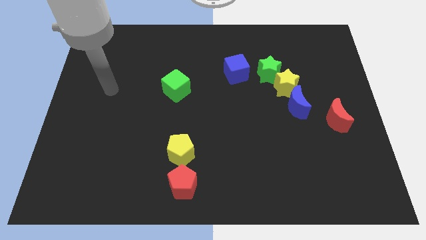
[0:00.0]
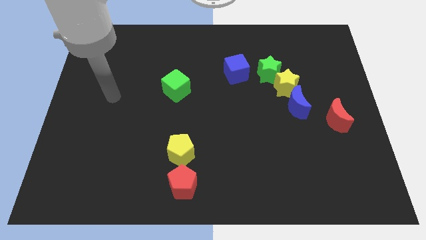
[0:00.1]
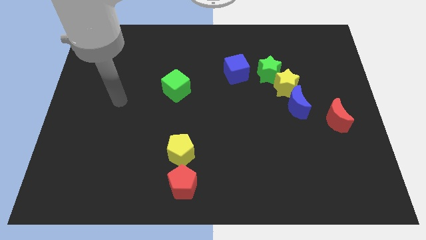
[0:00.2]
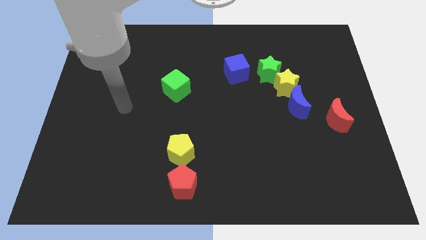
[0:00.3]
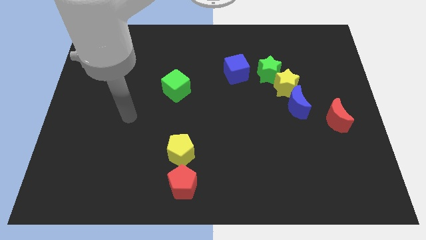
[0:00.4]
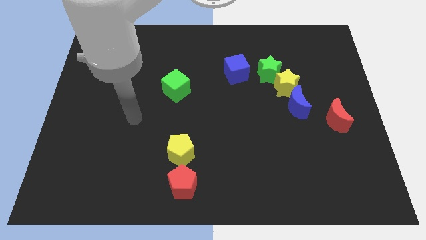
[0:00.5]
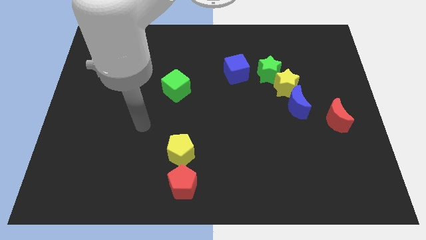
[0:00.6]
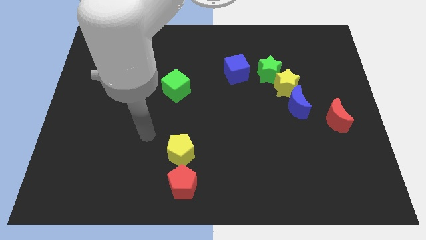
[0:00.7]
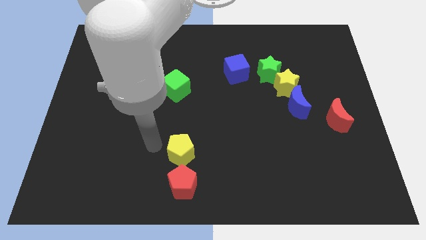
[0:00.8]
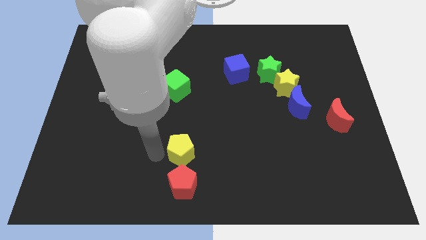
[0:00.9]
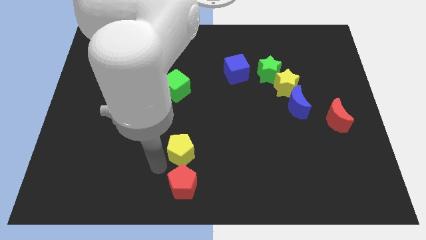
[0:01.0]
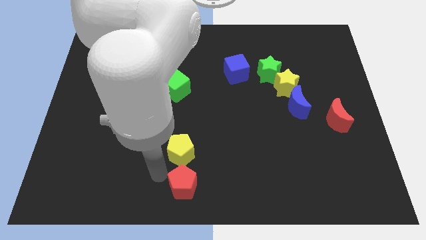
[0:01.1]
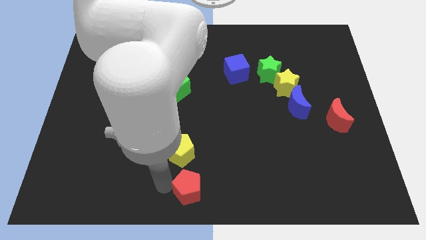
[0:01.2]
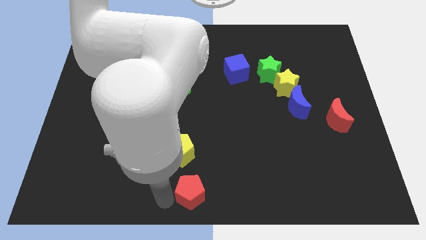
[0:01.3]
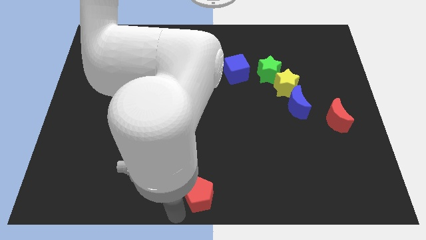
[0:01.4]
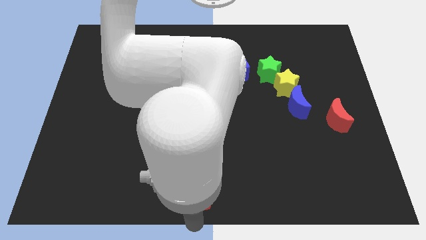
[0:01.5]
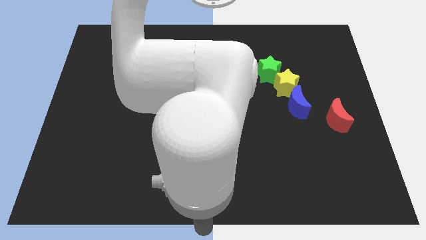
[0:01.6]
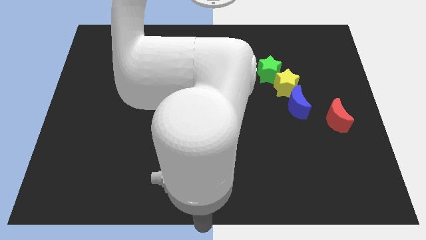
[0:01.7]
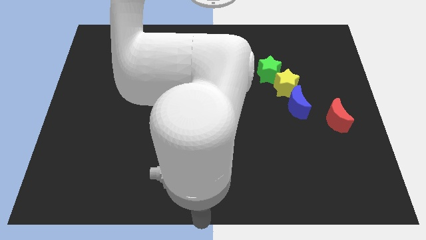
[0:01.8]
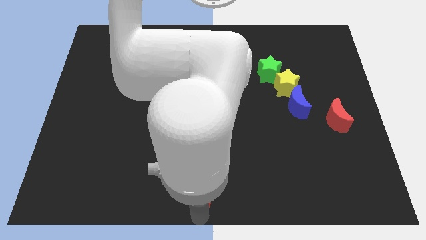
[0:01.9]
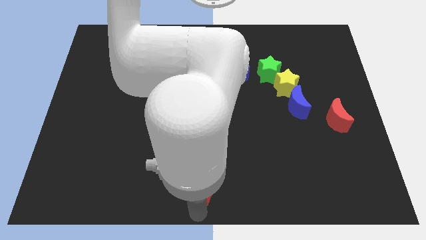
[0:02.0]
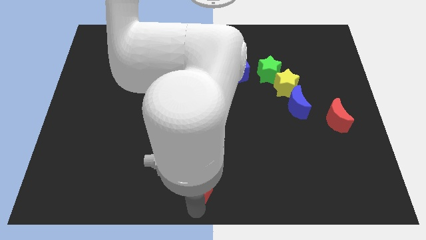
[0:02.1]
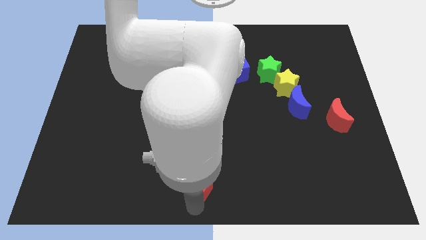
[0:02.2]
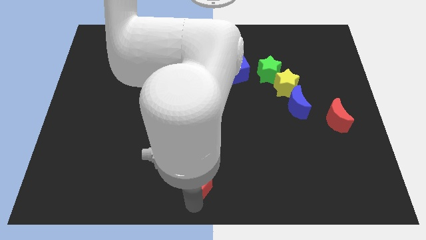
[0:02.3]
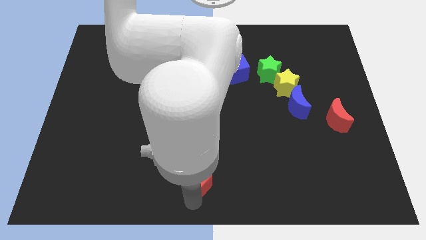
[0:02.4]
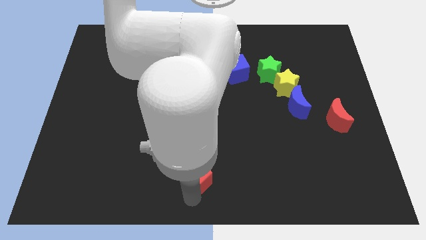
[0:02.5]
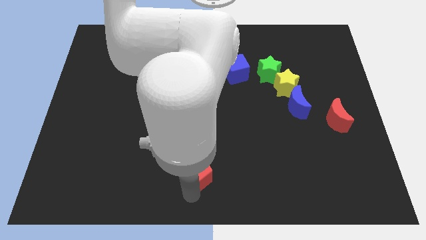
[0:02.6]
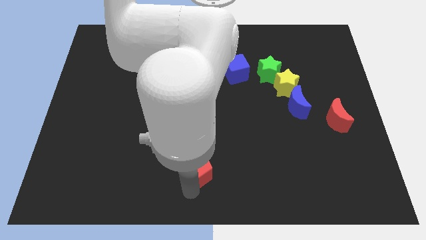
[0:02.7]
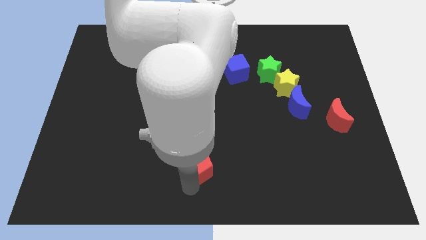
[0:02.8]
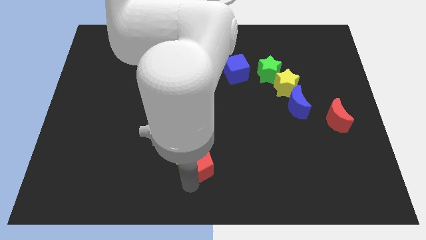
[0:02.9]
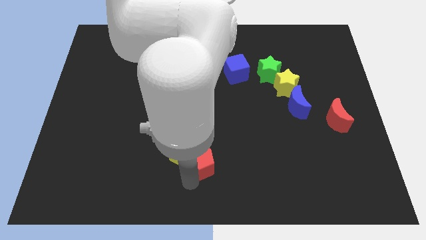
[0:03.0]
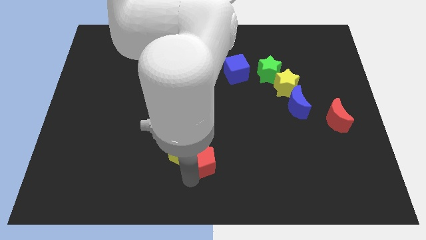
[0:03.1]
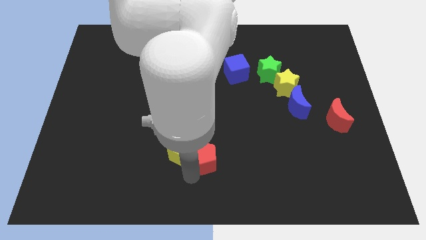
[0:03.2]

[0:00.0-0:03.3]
move the red pentagon slightly up and to the right

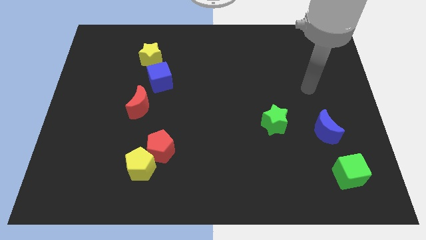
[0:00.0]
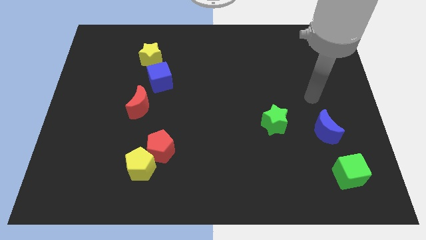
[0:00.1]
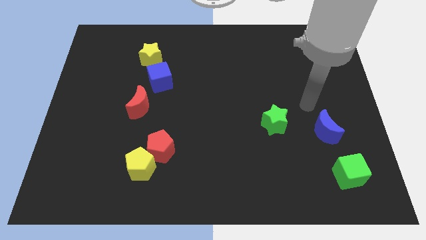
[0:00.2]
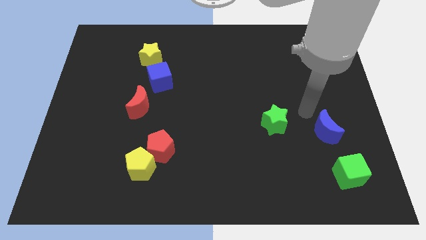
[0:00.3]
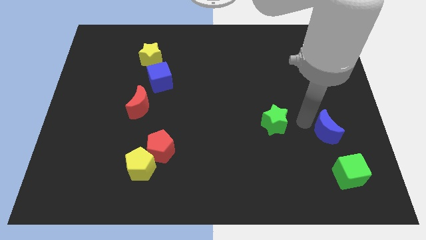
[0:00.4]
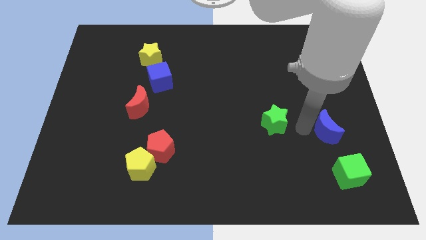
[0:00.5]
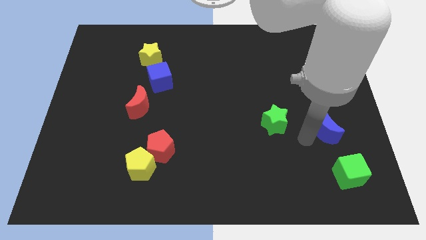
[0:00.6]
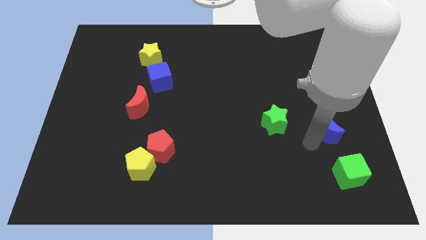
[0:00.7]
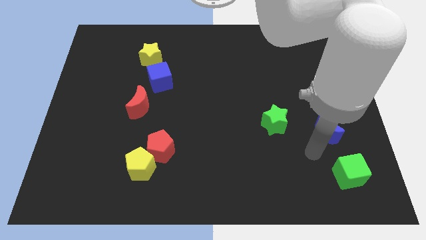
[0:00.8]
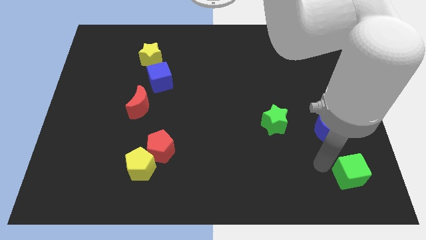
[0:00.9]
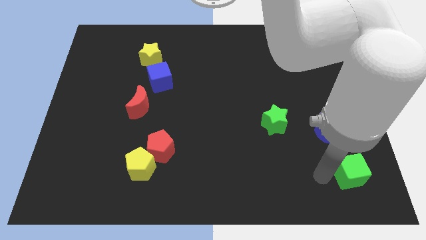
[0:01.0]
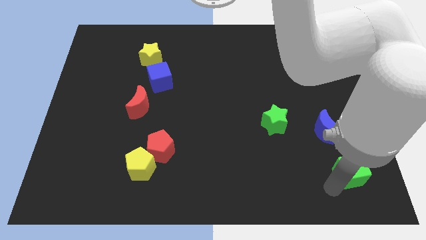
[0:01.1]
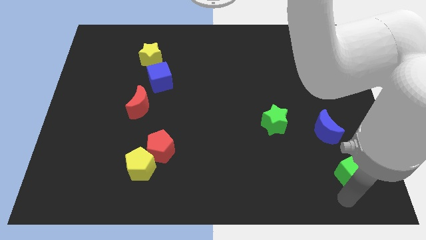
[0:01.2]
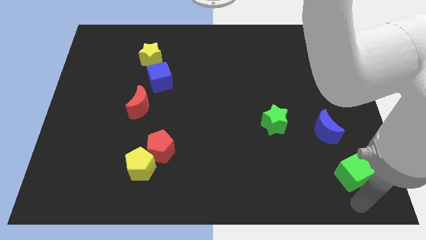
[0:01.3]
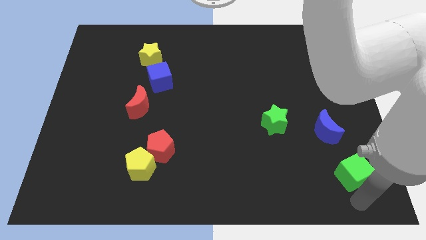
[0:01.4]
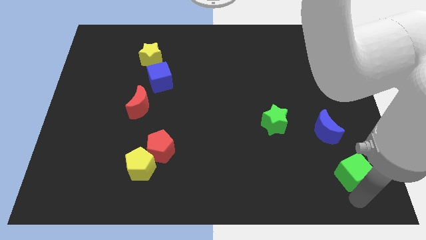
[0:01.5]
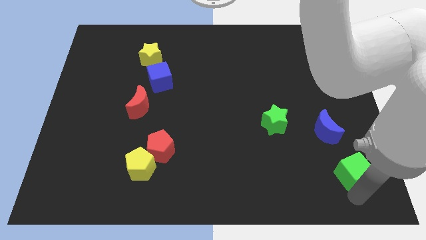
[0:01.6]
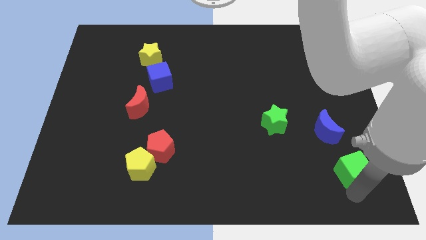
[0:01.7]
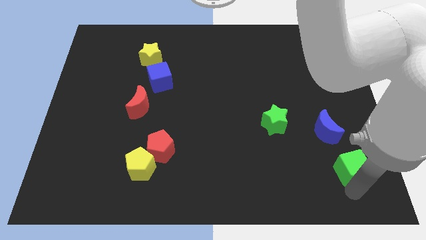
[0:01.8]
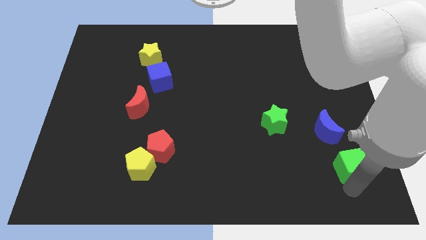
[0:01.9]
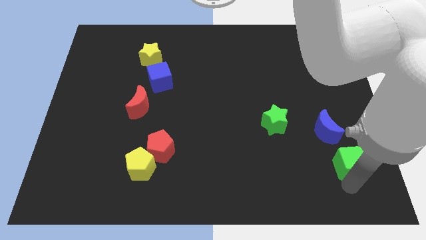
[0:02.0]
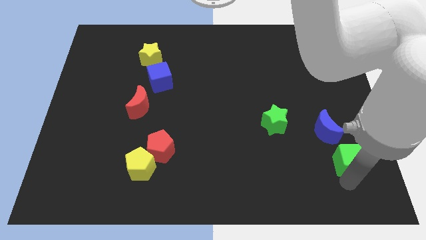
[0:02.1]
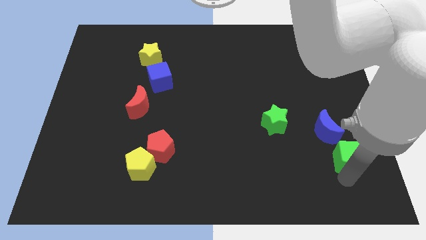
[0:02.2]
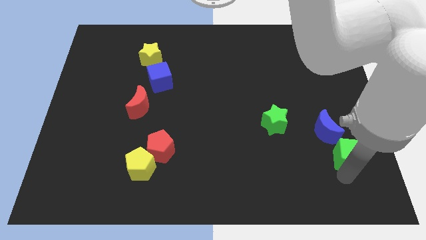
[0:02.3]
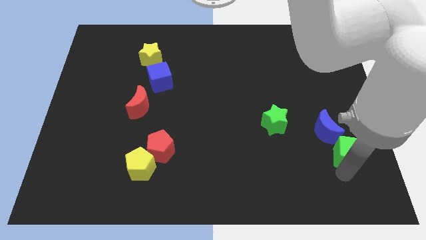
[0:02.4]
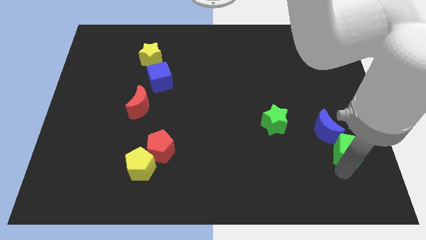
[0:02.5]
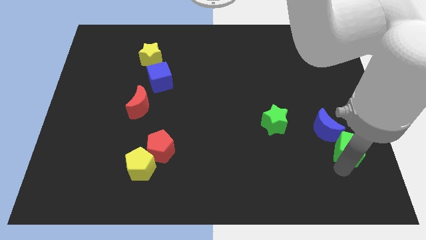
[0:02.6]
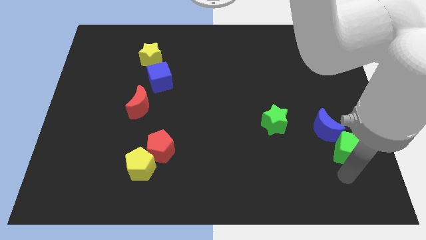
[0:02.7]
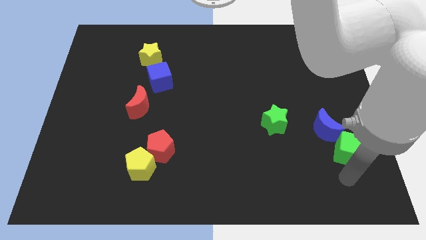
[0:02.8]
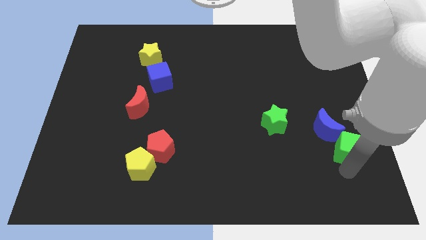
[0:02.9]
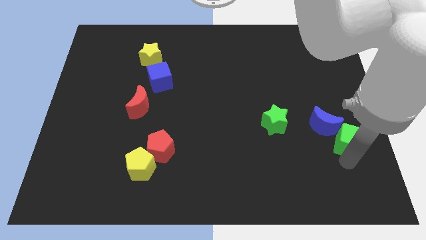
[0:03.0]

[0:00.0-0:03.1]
move the green cube a little upwards

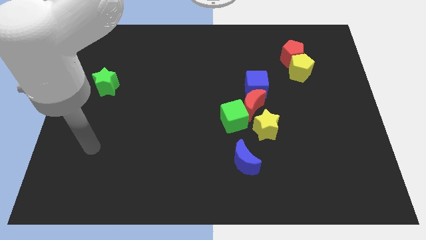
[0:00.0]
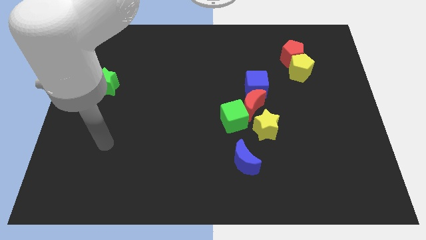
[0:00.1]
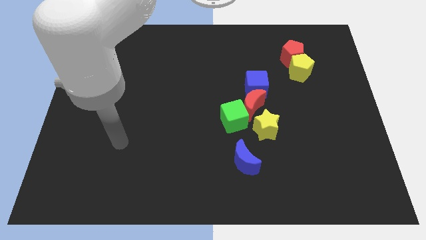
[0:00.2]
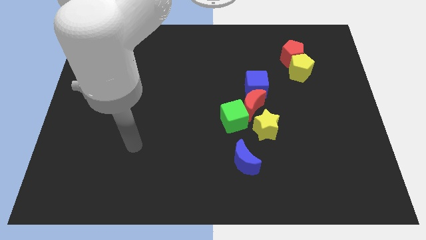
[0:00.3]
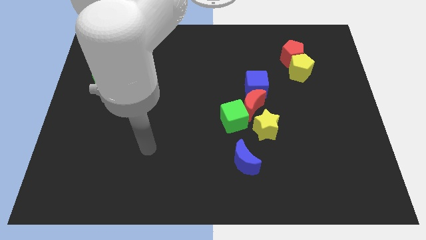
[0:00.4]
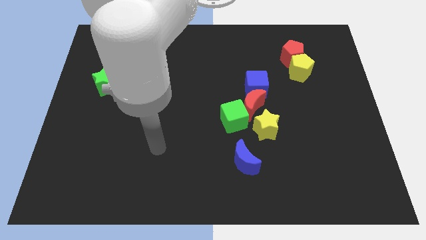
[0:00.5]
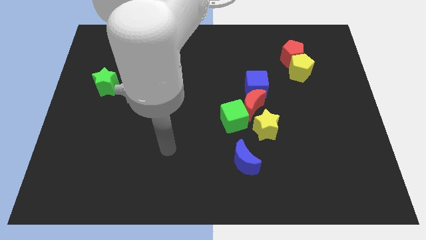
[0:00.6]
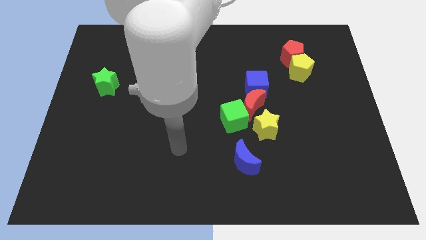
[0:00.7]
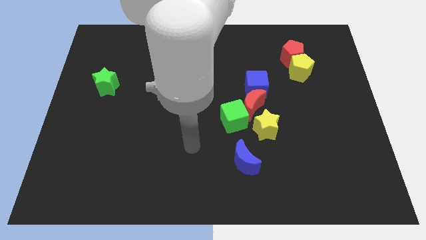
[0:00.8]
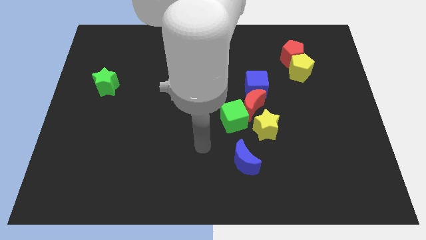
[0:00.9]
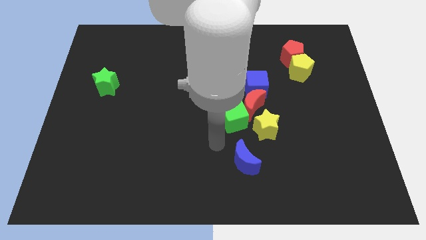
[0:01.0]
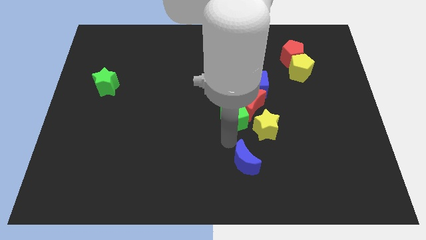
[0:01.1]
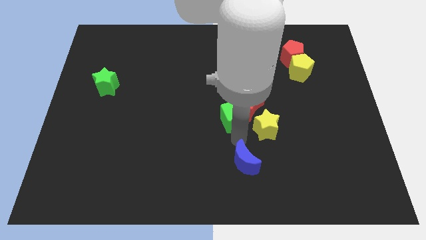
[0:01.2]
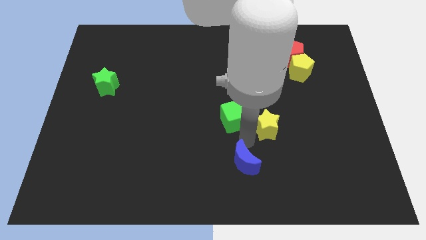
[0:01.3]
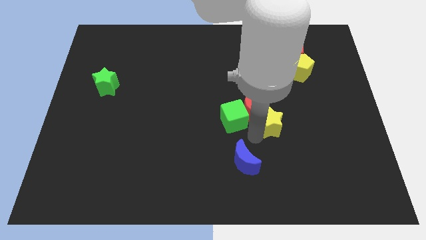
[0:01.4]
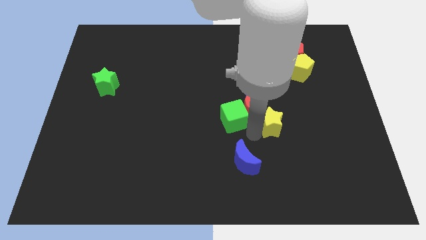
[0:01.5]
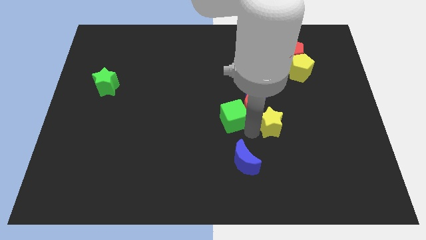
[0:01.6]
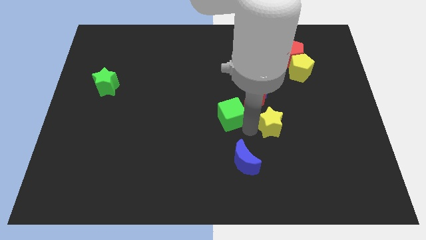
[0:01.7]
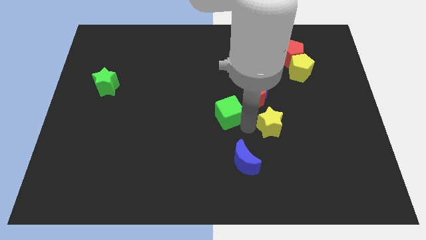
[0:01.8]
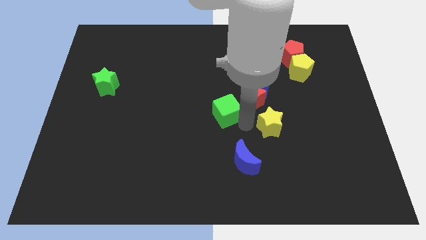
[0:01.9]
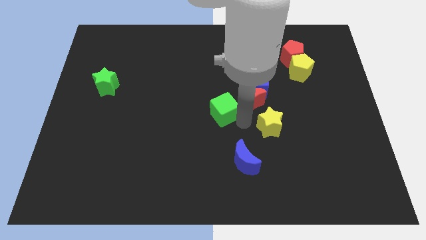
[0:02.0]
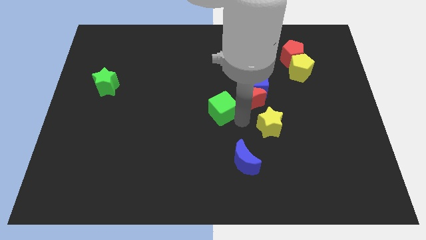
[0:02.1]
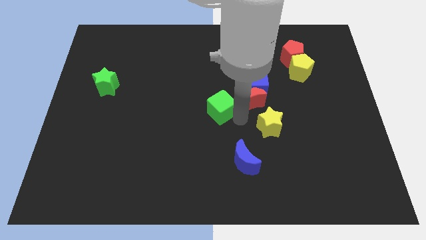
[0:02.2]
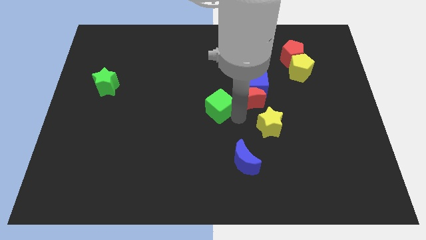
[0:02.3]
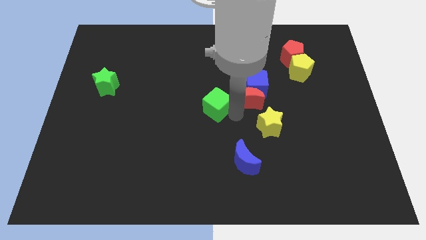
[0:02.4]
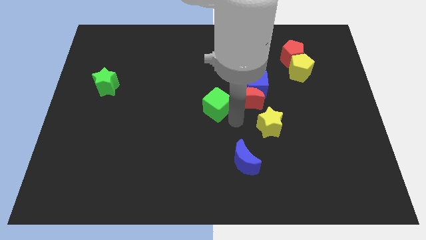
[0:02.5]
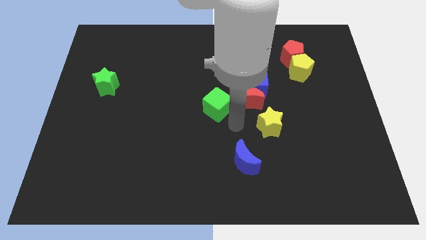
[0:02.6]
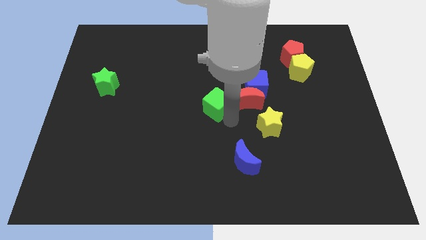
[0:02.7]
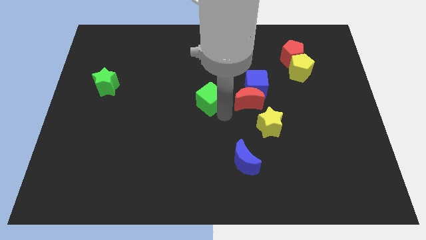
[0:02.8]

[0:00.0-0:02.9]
slightly move the green cube up and to the left diagonally
